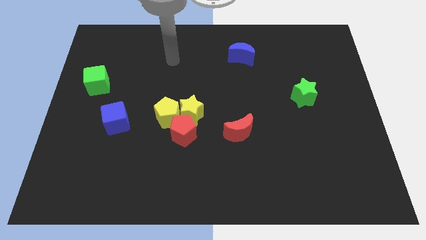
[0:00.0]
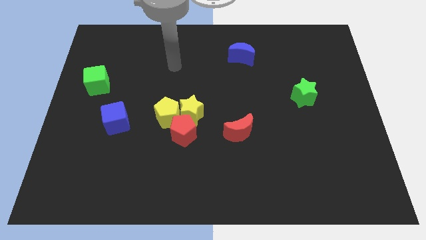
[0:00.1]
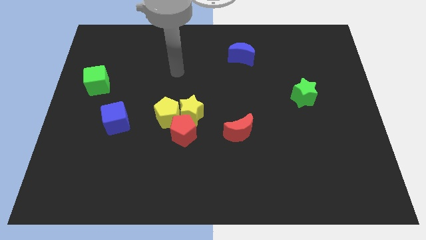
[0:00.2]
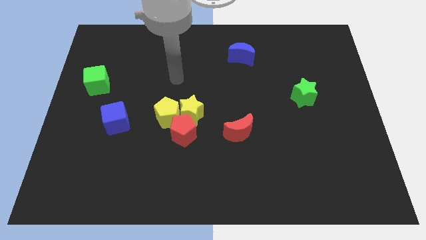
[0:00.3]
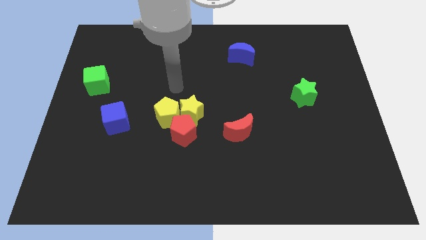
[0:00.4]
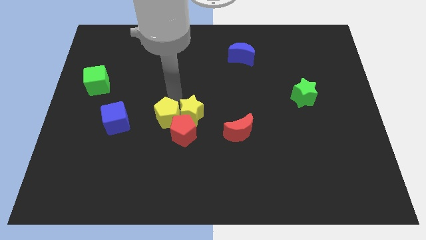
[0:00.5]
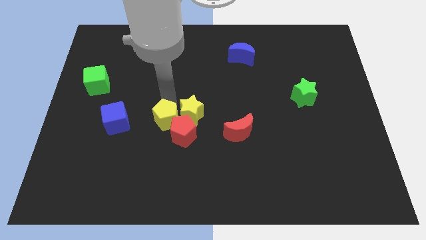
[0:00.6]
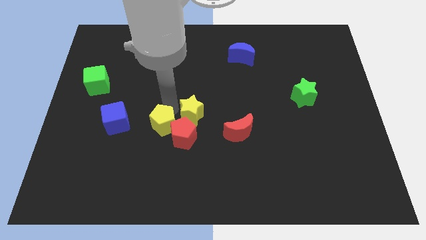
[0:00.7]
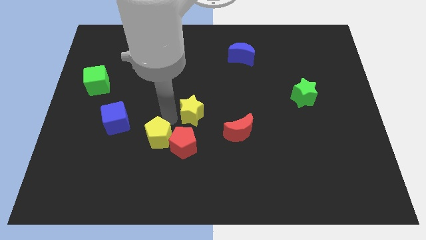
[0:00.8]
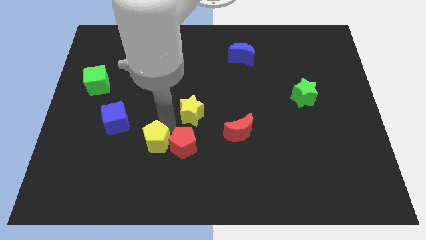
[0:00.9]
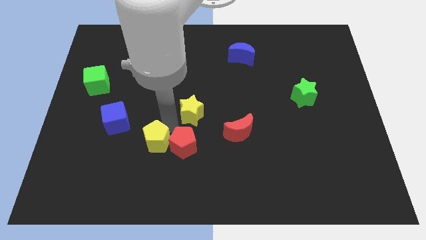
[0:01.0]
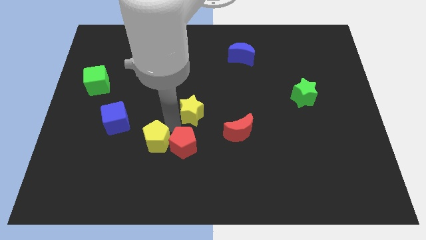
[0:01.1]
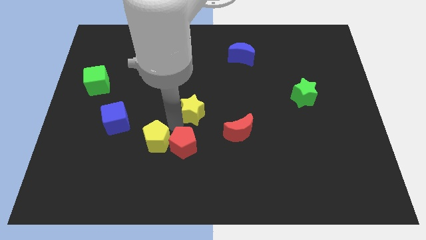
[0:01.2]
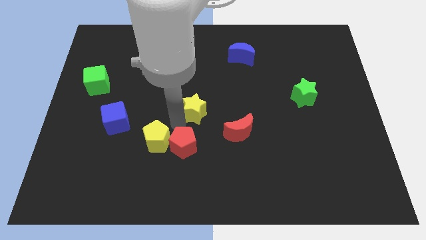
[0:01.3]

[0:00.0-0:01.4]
move the yellow star away from the red pentagon and yellow pentagon

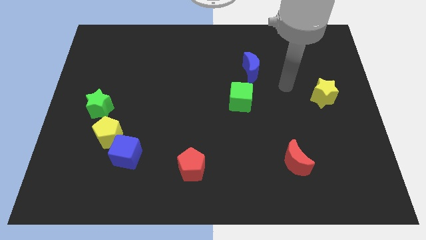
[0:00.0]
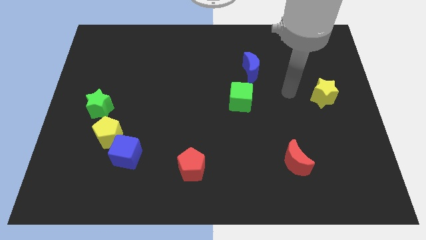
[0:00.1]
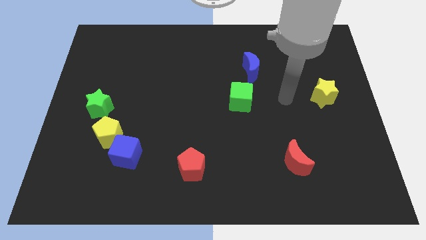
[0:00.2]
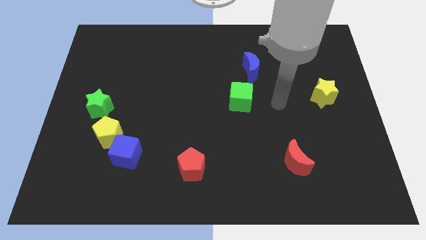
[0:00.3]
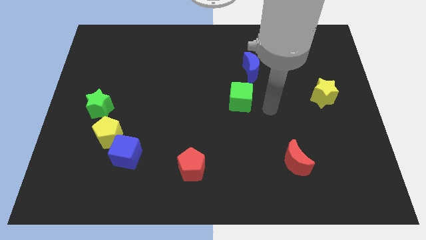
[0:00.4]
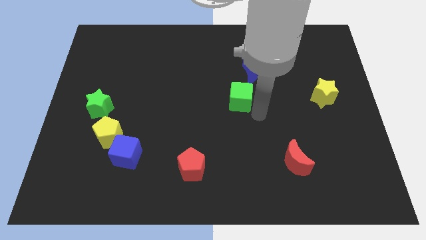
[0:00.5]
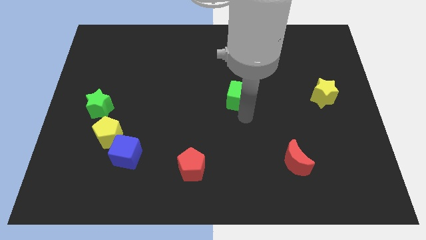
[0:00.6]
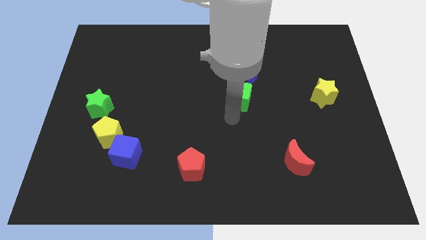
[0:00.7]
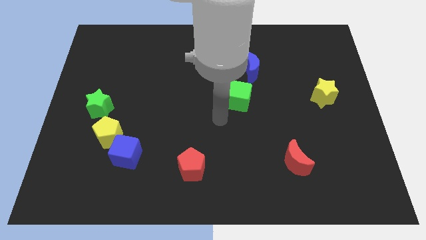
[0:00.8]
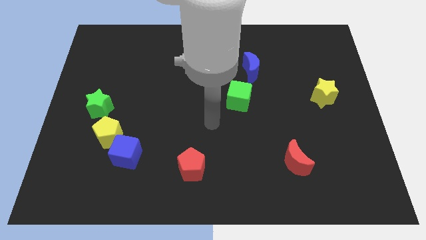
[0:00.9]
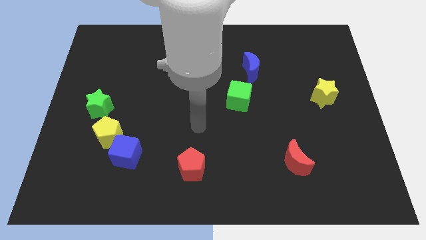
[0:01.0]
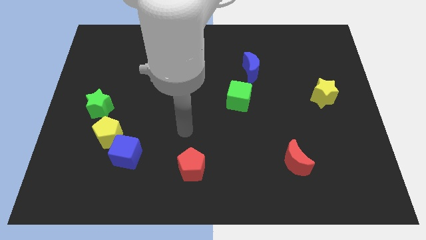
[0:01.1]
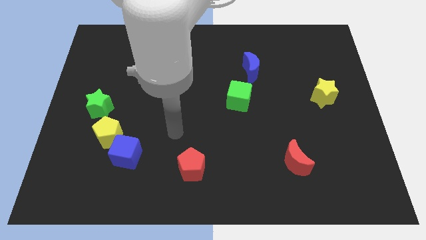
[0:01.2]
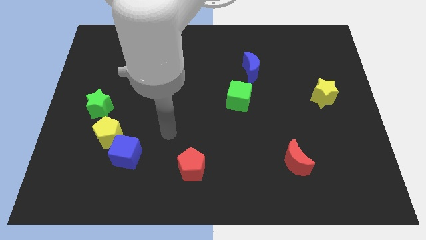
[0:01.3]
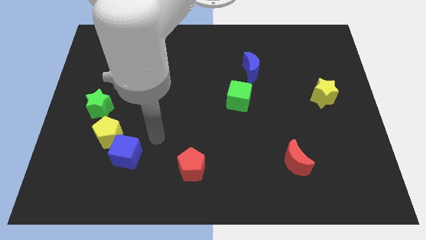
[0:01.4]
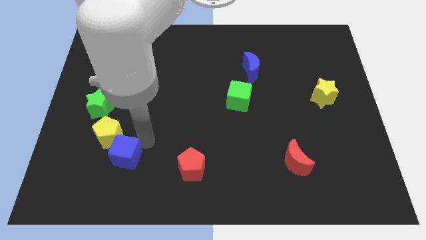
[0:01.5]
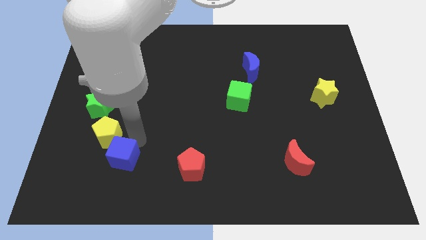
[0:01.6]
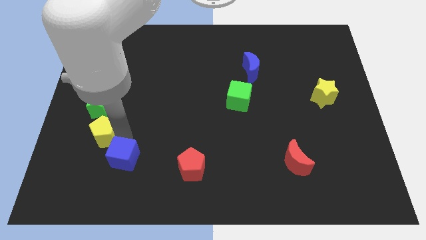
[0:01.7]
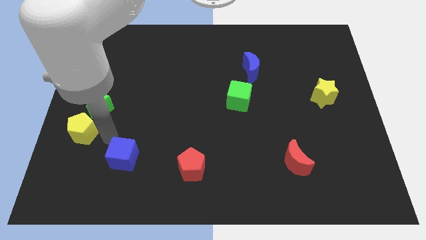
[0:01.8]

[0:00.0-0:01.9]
separate the blue cube from the yellow pentagon

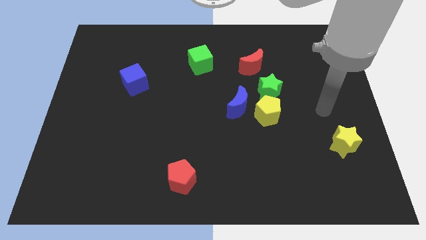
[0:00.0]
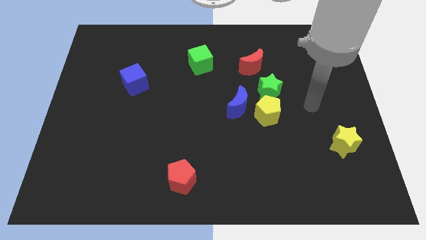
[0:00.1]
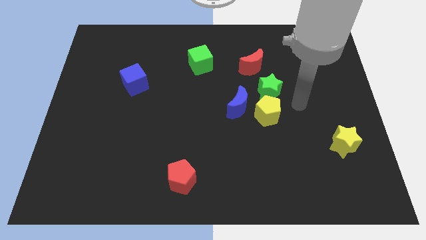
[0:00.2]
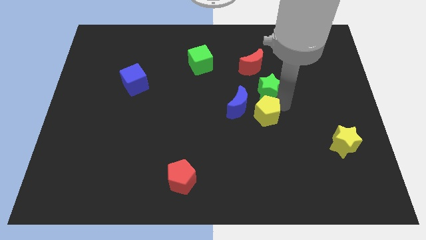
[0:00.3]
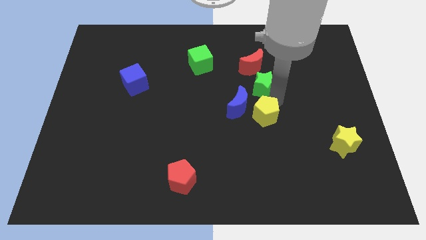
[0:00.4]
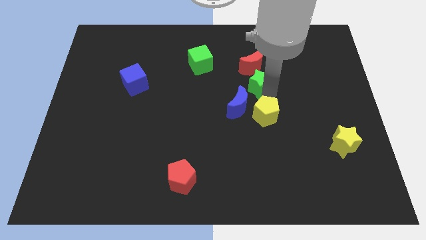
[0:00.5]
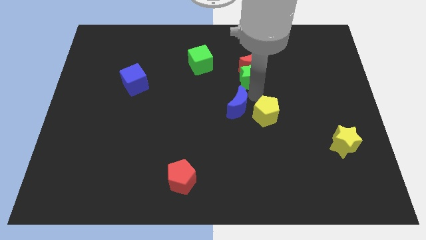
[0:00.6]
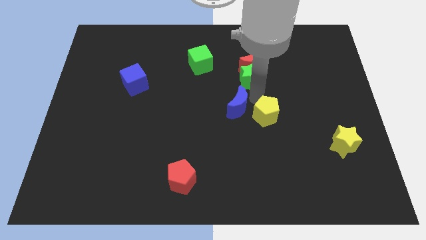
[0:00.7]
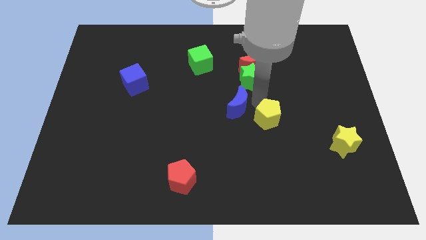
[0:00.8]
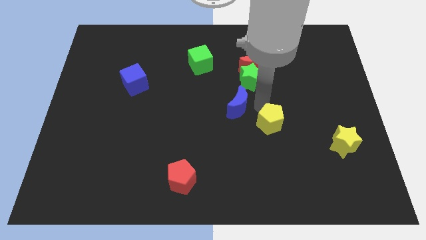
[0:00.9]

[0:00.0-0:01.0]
separate the yellow pentagon from the blue moon and green star

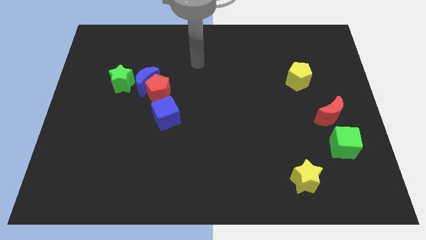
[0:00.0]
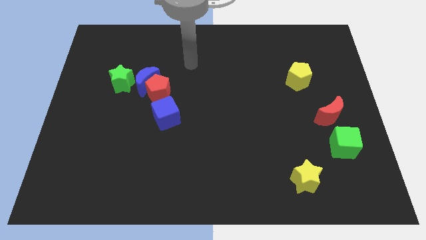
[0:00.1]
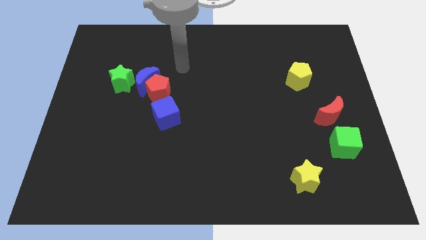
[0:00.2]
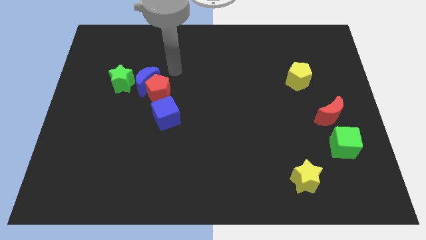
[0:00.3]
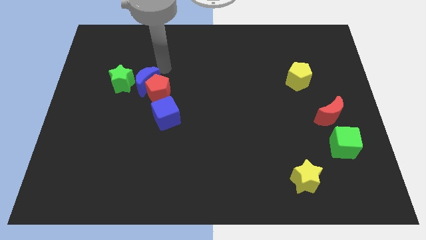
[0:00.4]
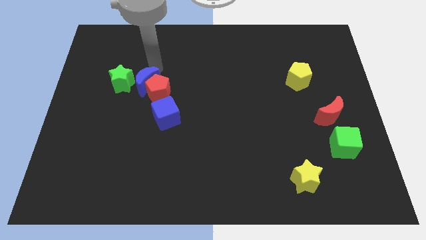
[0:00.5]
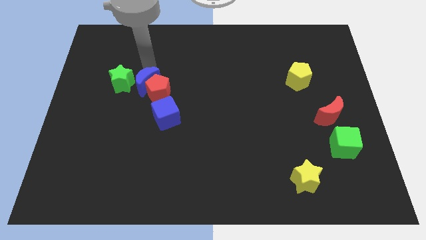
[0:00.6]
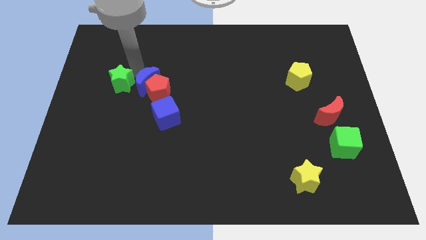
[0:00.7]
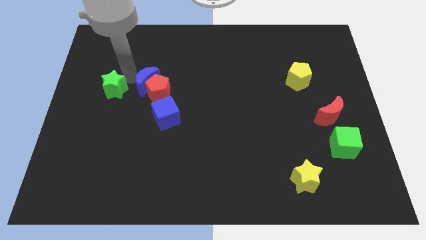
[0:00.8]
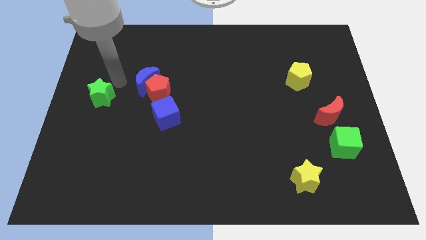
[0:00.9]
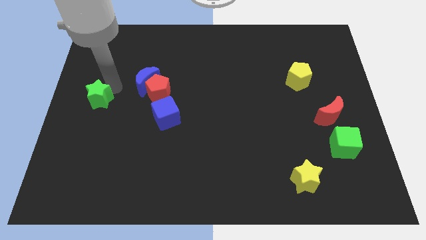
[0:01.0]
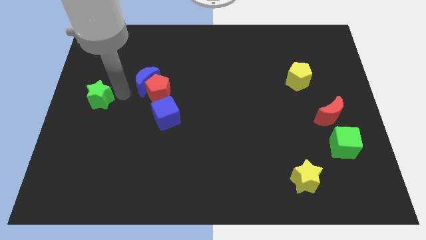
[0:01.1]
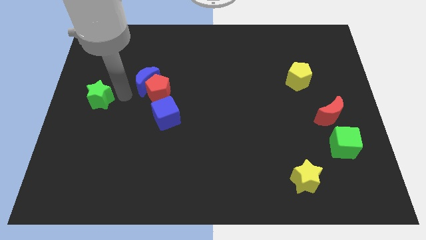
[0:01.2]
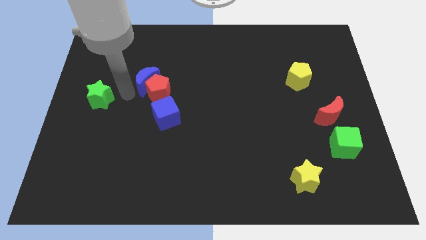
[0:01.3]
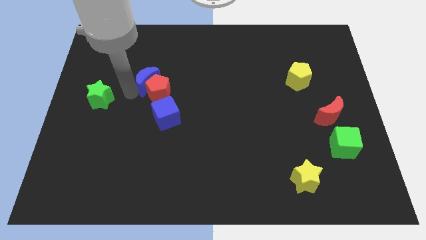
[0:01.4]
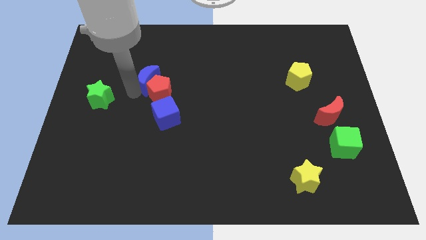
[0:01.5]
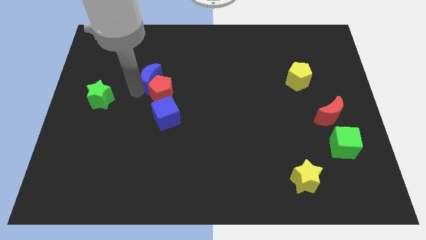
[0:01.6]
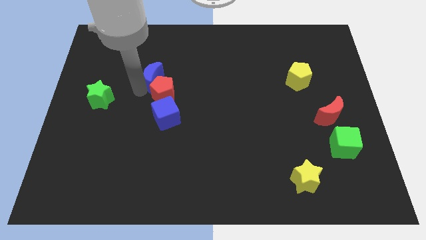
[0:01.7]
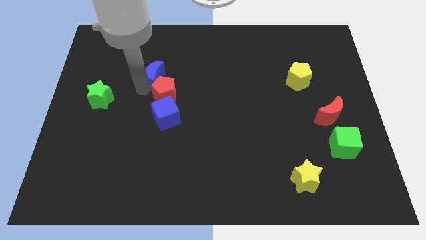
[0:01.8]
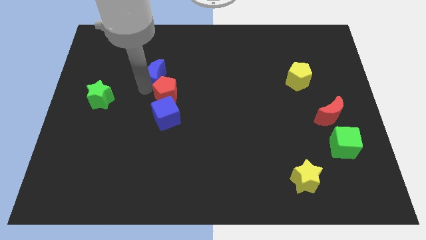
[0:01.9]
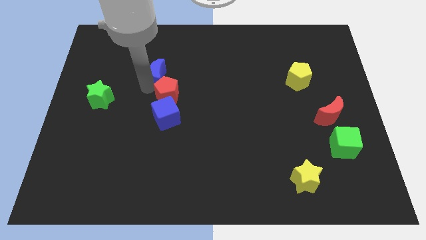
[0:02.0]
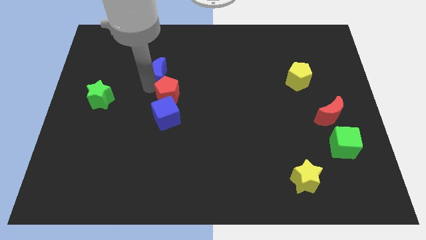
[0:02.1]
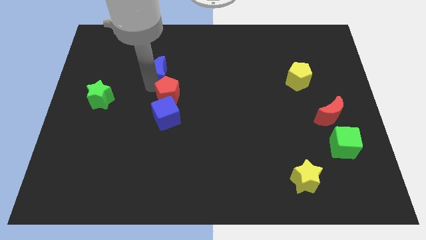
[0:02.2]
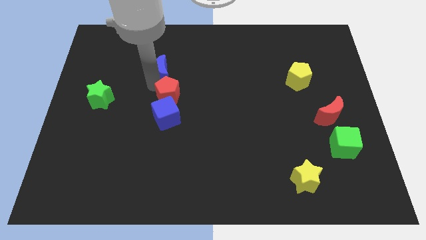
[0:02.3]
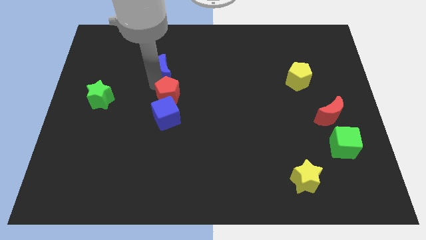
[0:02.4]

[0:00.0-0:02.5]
pull the blue moon apart from the red pentagon and green star

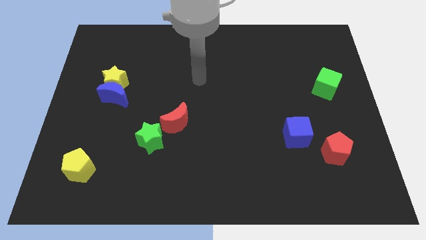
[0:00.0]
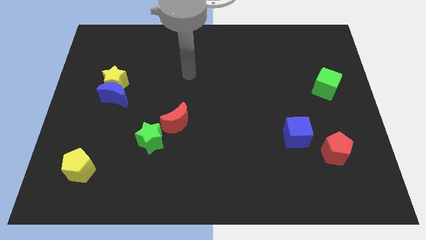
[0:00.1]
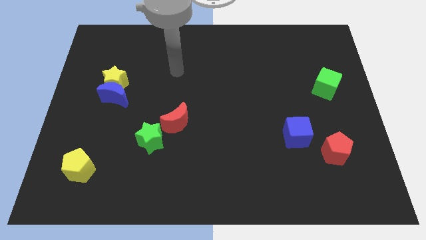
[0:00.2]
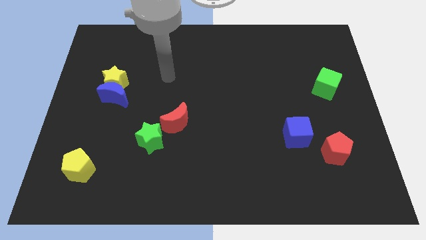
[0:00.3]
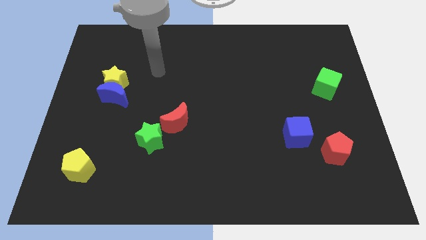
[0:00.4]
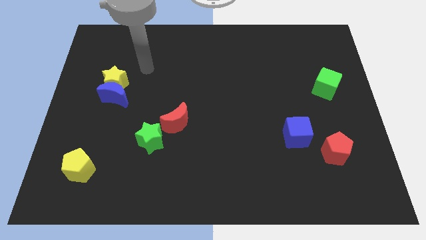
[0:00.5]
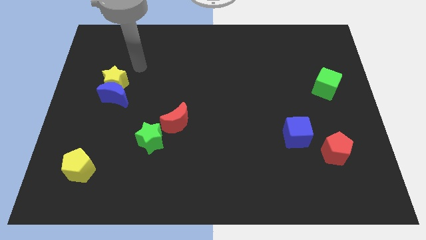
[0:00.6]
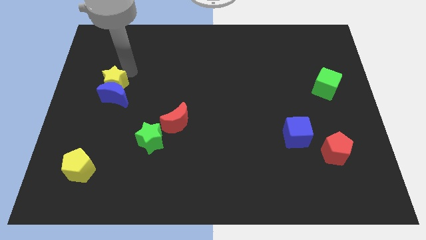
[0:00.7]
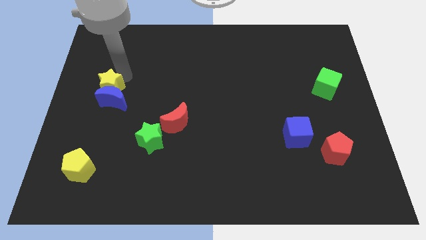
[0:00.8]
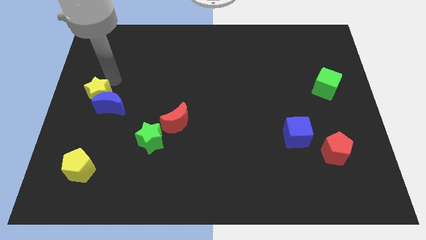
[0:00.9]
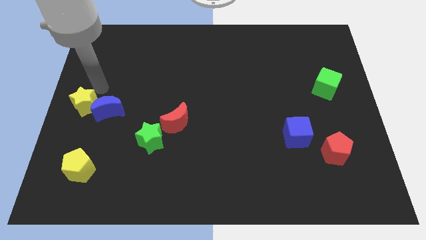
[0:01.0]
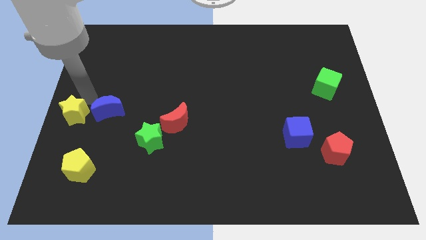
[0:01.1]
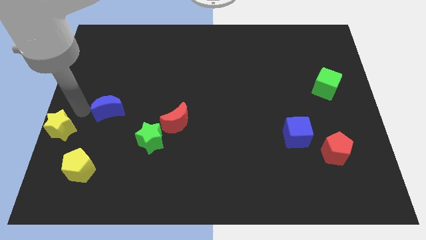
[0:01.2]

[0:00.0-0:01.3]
move the blue moon away from the yellow star

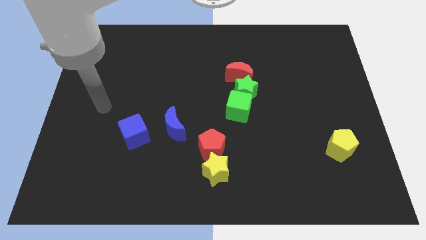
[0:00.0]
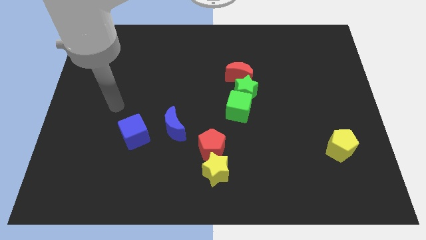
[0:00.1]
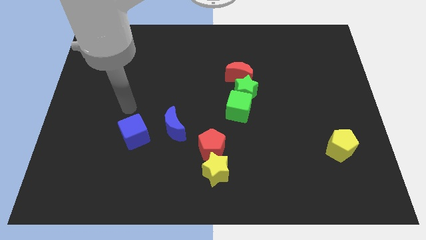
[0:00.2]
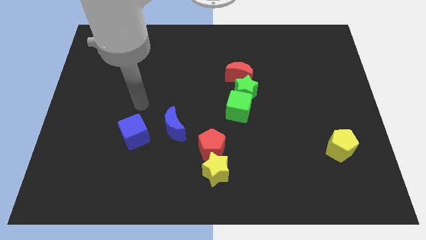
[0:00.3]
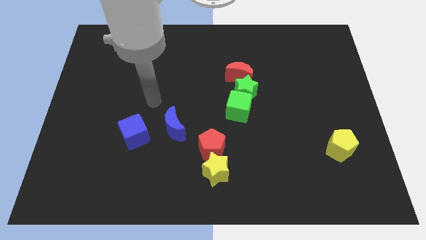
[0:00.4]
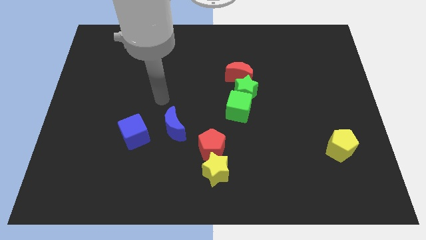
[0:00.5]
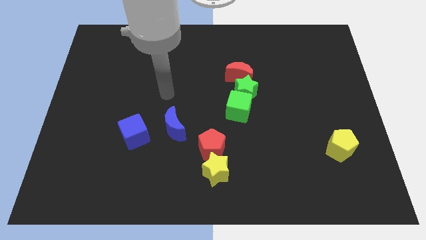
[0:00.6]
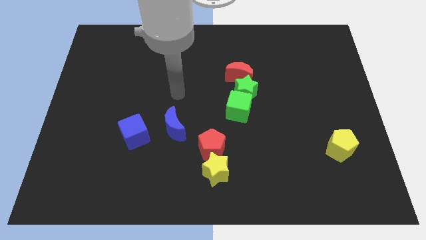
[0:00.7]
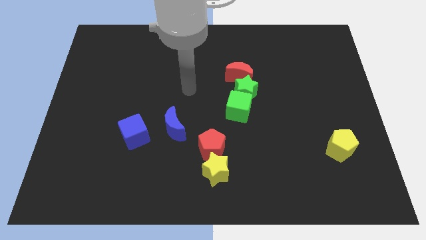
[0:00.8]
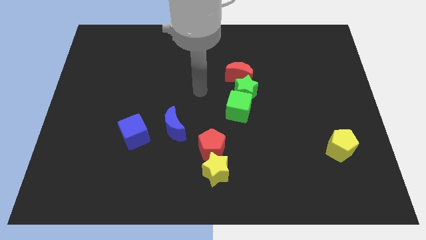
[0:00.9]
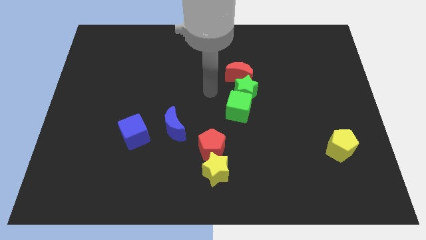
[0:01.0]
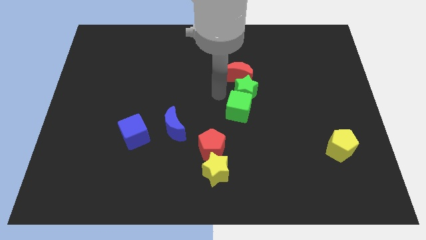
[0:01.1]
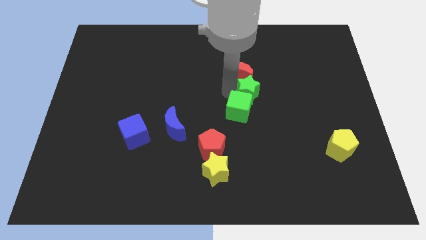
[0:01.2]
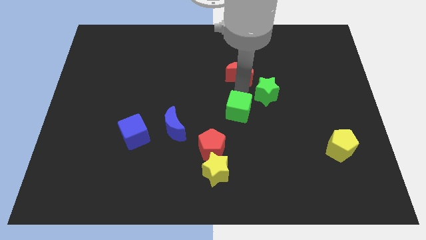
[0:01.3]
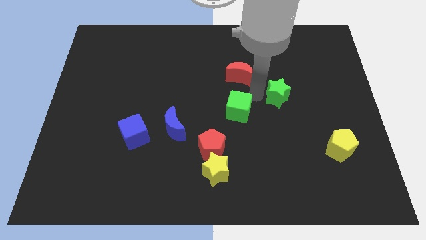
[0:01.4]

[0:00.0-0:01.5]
separate the green cube from the green star
